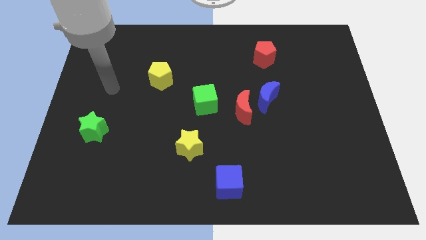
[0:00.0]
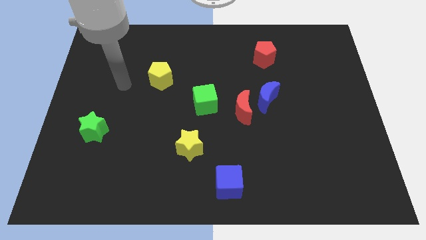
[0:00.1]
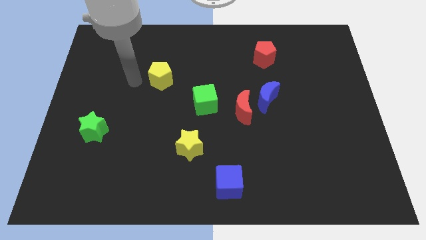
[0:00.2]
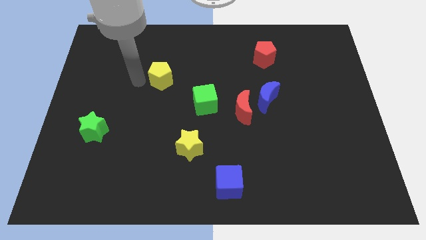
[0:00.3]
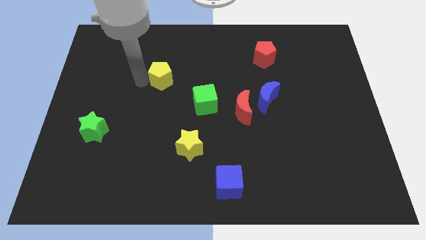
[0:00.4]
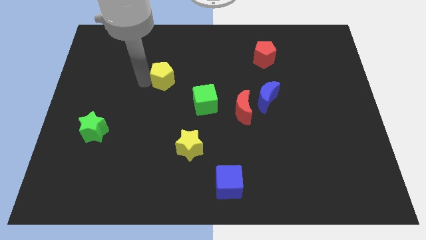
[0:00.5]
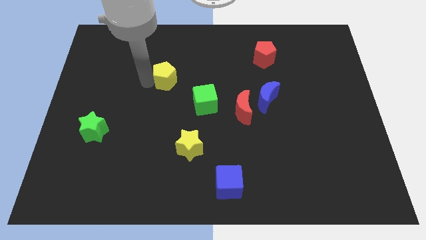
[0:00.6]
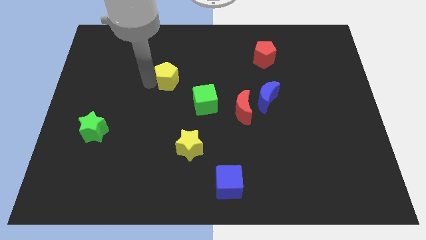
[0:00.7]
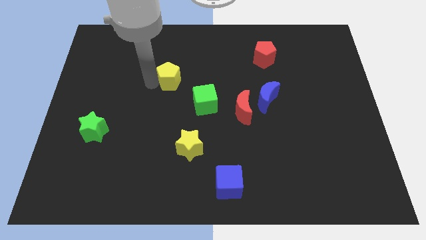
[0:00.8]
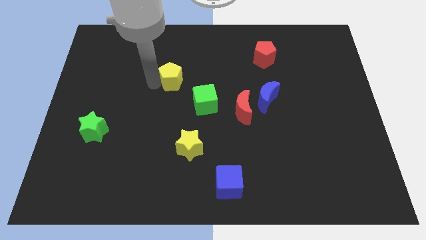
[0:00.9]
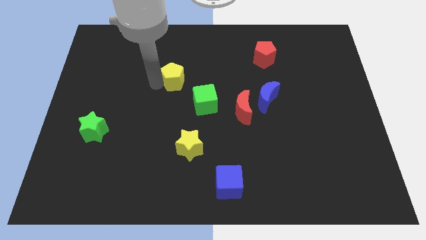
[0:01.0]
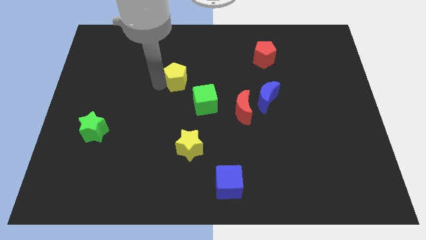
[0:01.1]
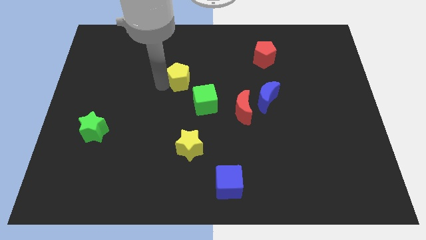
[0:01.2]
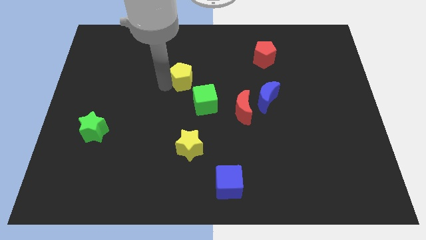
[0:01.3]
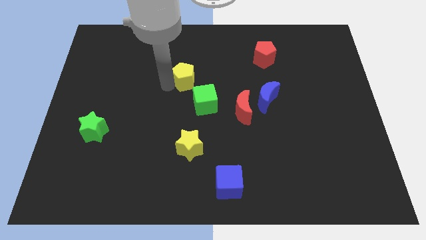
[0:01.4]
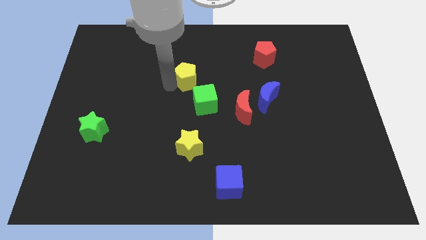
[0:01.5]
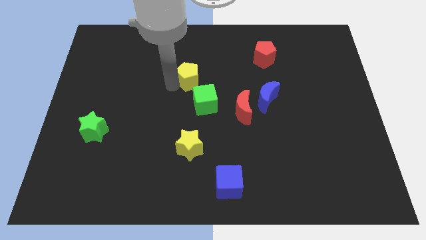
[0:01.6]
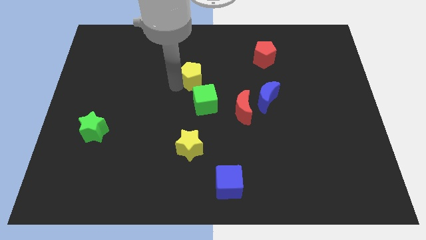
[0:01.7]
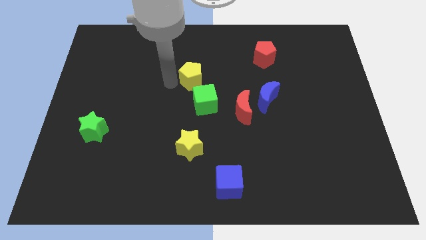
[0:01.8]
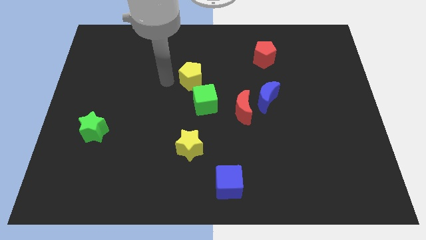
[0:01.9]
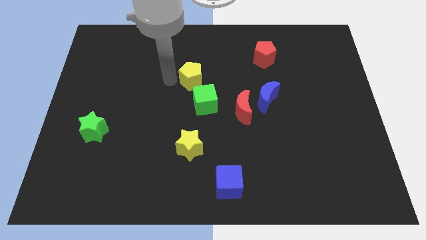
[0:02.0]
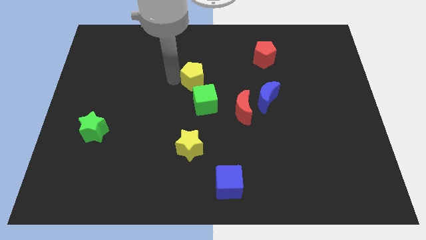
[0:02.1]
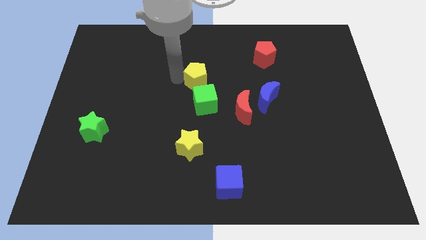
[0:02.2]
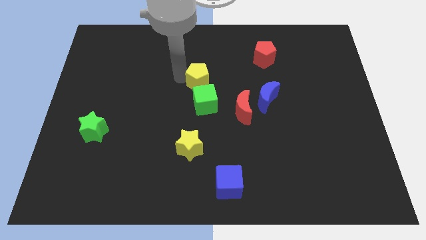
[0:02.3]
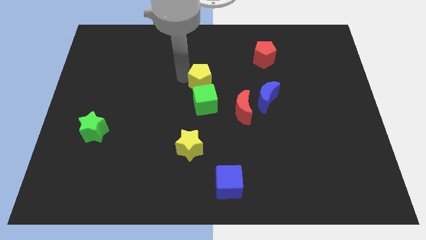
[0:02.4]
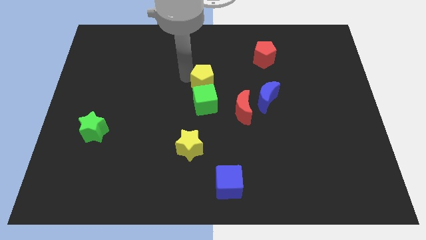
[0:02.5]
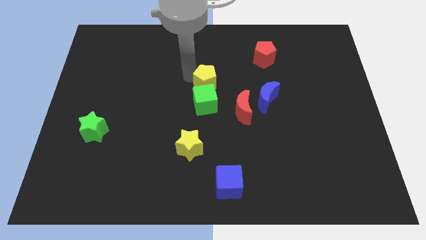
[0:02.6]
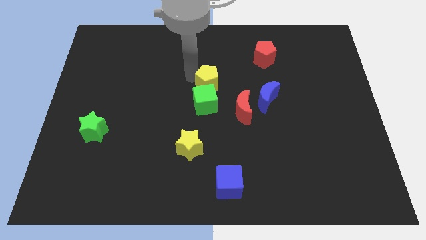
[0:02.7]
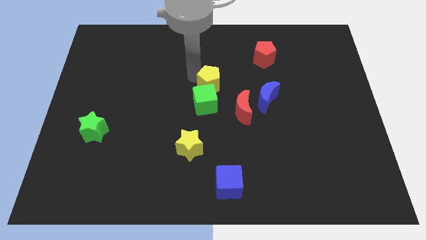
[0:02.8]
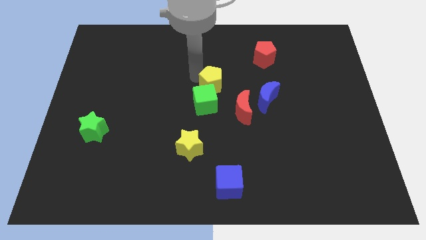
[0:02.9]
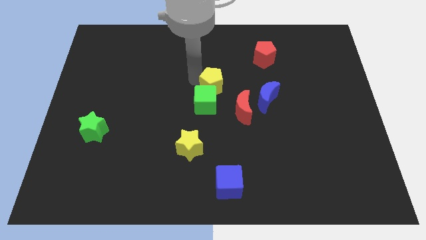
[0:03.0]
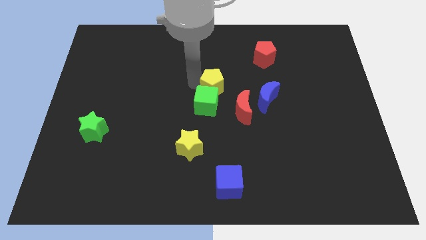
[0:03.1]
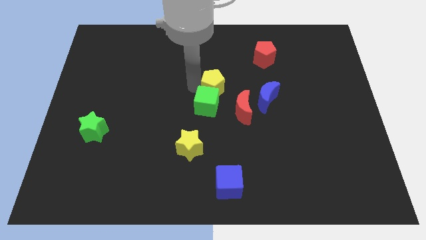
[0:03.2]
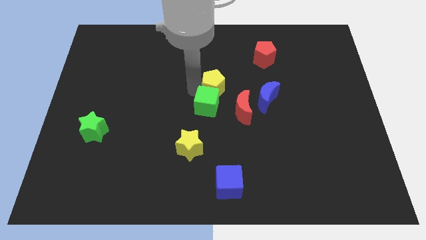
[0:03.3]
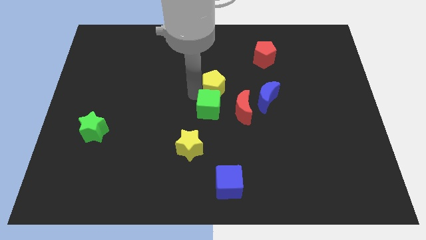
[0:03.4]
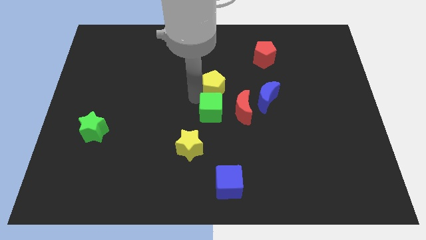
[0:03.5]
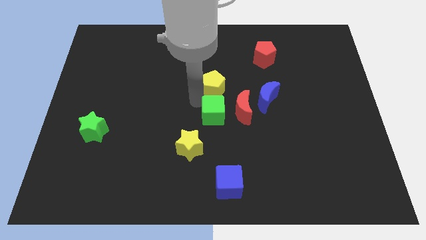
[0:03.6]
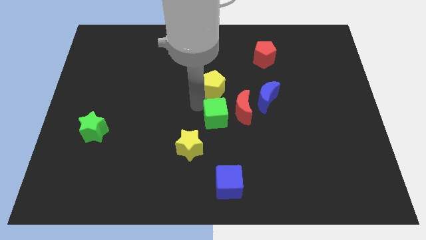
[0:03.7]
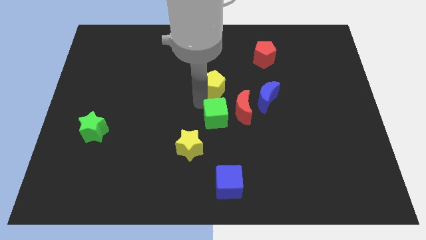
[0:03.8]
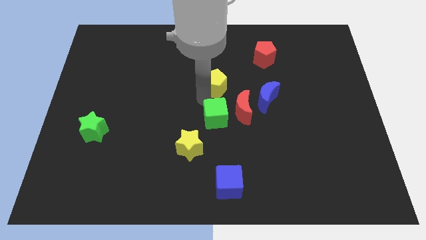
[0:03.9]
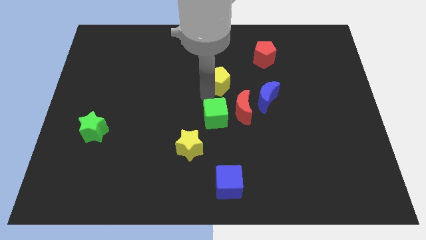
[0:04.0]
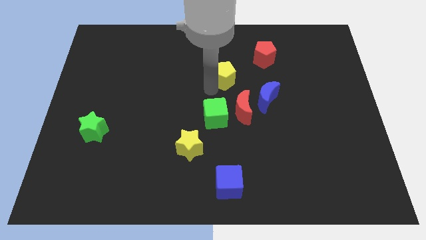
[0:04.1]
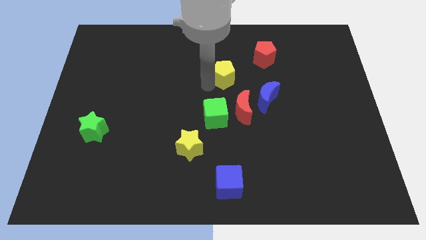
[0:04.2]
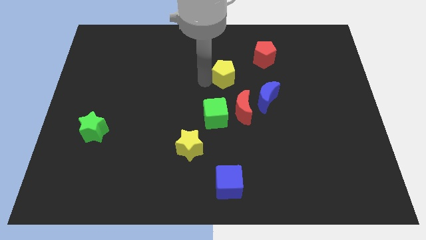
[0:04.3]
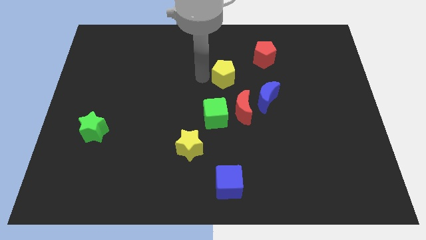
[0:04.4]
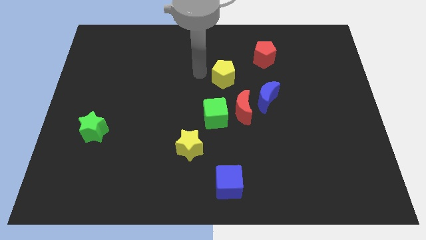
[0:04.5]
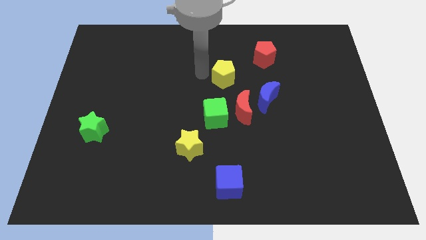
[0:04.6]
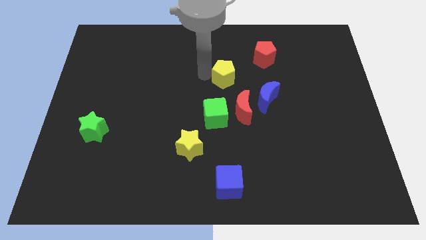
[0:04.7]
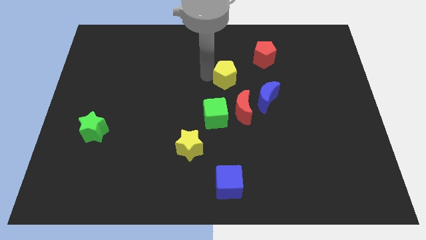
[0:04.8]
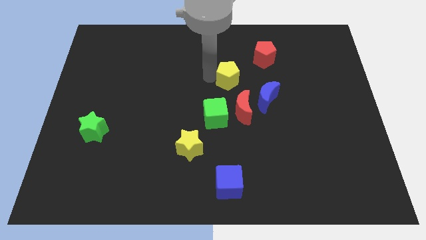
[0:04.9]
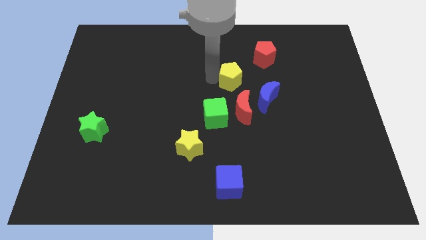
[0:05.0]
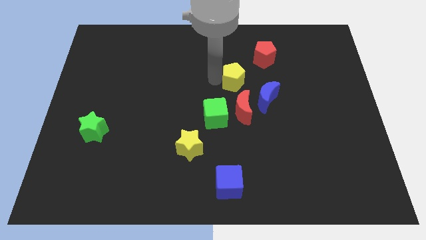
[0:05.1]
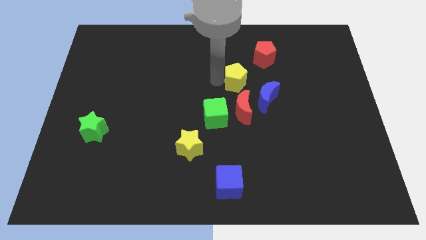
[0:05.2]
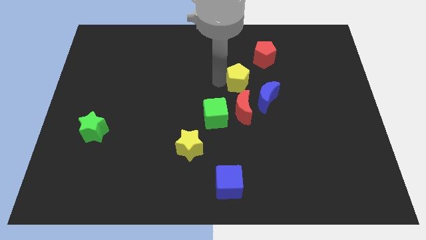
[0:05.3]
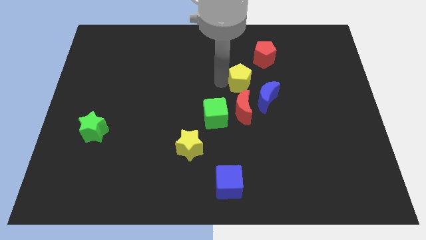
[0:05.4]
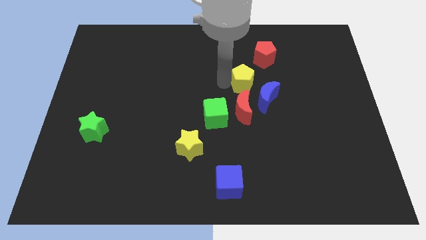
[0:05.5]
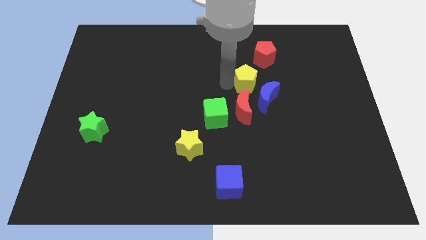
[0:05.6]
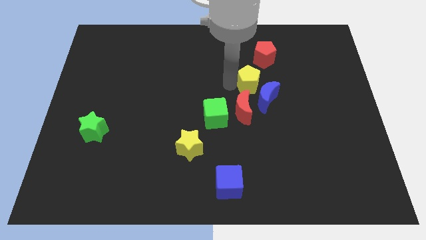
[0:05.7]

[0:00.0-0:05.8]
push the yellow pentagon below the red pentagon

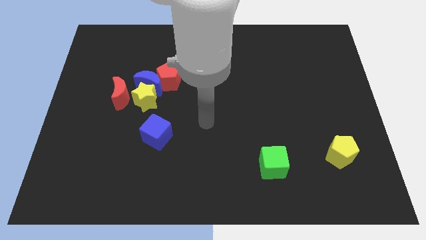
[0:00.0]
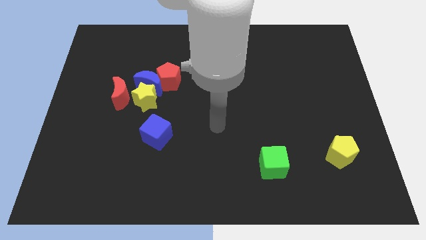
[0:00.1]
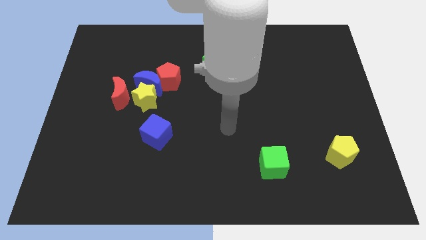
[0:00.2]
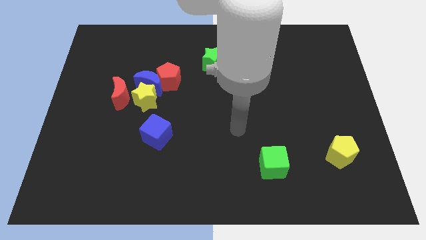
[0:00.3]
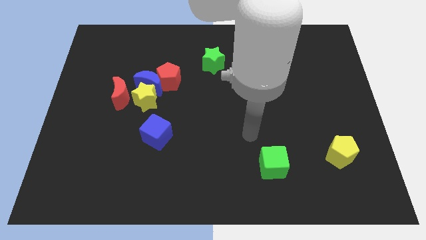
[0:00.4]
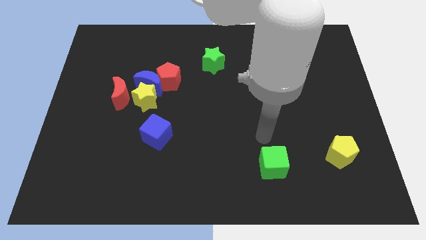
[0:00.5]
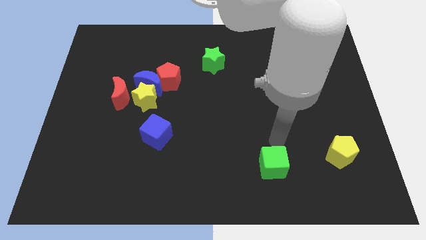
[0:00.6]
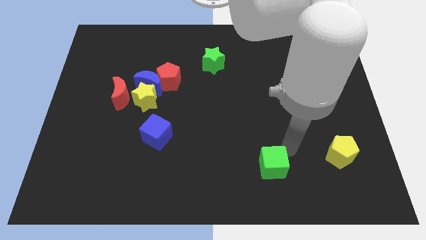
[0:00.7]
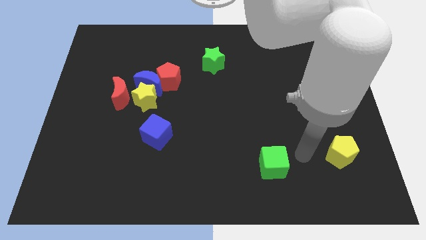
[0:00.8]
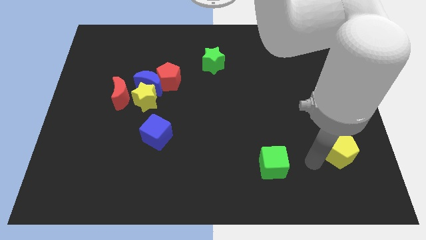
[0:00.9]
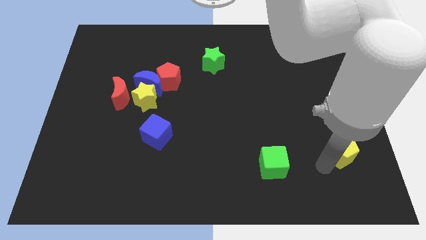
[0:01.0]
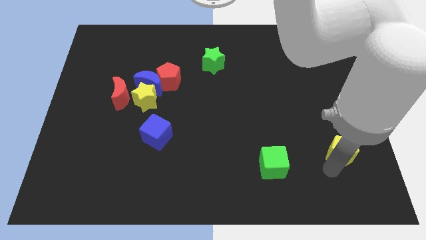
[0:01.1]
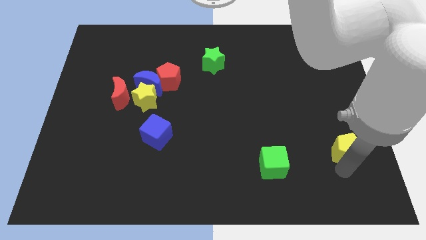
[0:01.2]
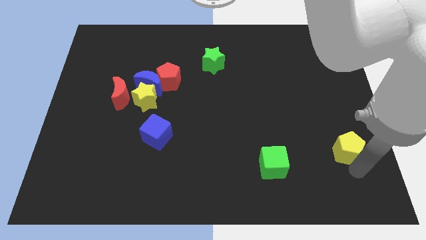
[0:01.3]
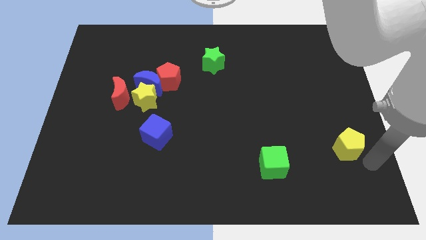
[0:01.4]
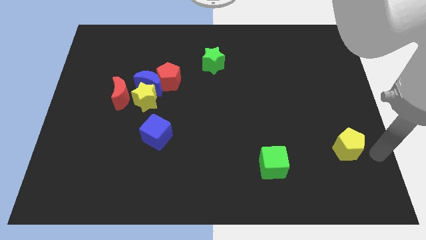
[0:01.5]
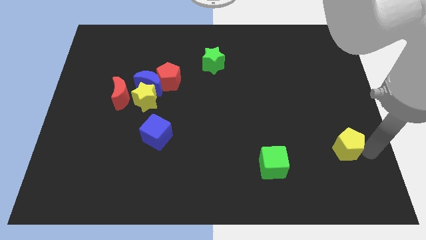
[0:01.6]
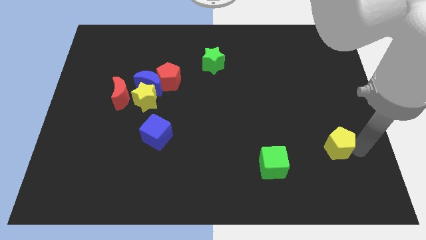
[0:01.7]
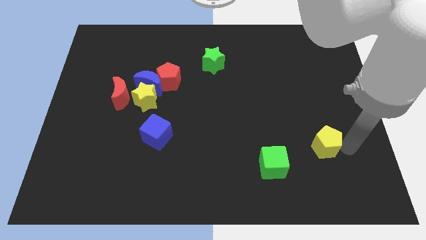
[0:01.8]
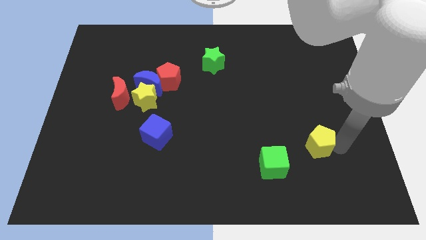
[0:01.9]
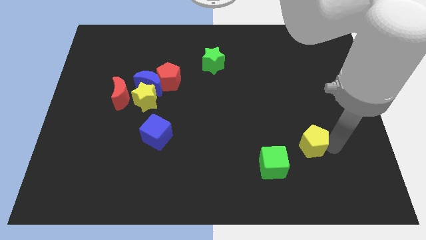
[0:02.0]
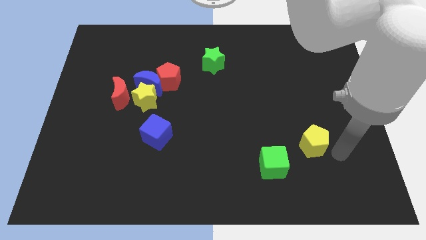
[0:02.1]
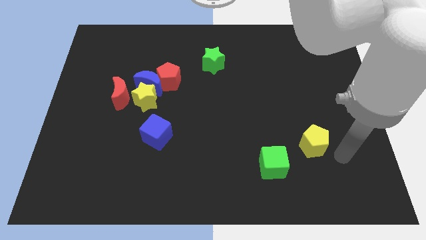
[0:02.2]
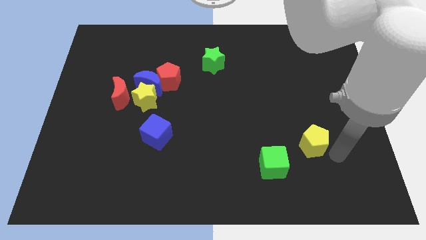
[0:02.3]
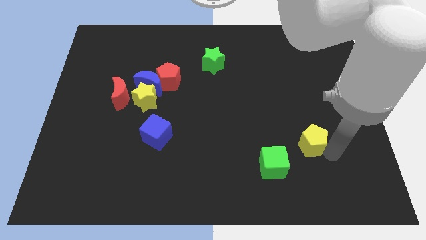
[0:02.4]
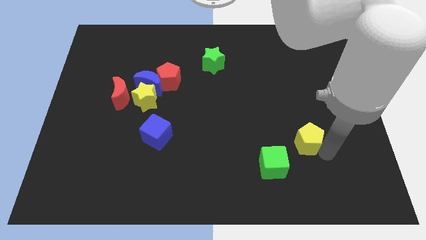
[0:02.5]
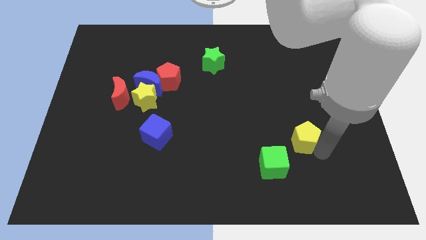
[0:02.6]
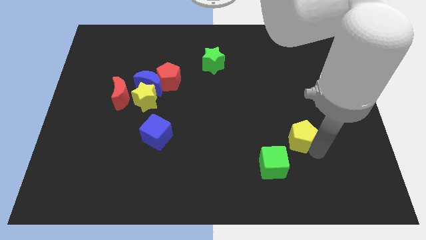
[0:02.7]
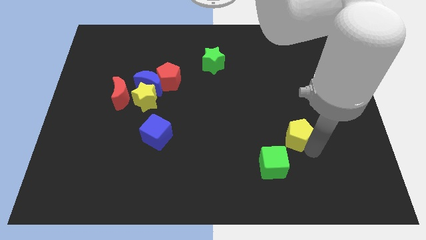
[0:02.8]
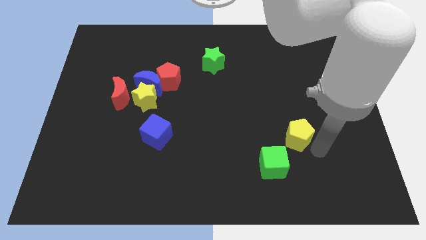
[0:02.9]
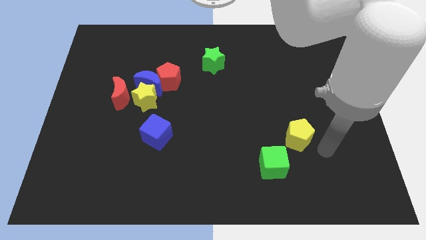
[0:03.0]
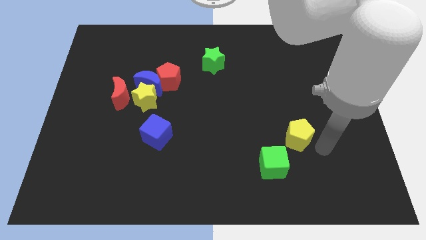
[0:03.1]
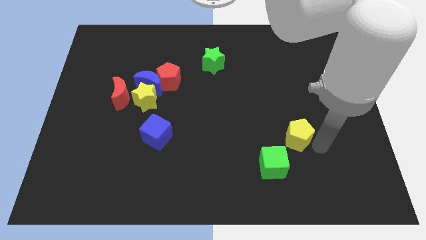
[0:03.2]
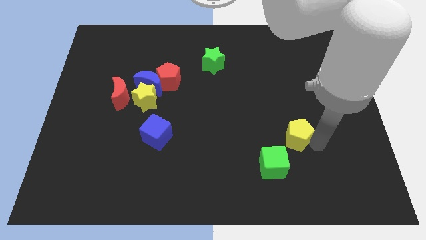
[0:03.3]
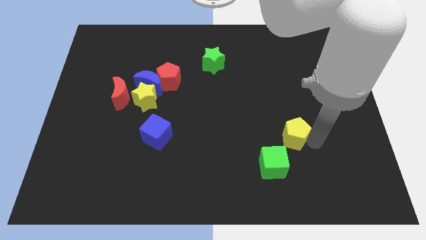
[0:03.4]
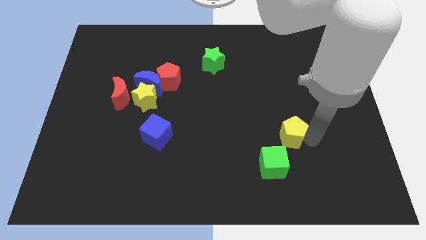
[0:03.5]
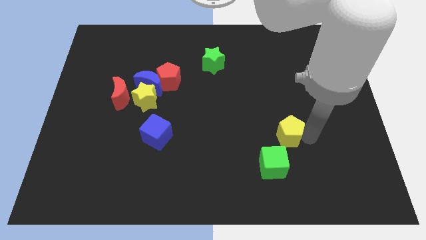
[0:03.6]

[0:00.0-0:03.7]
move the yellow pentagon to the top of the green cube
